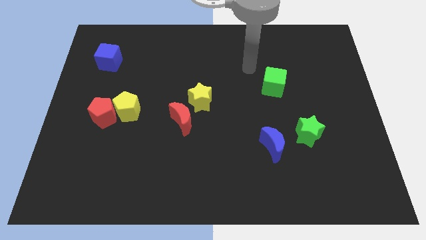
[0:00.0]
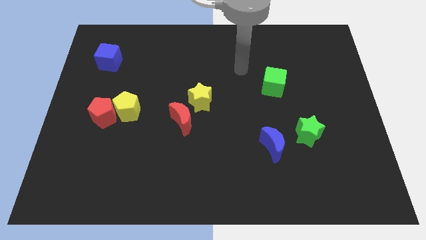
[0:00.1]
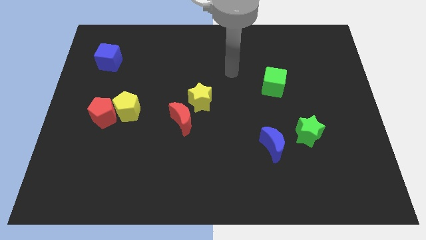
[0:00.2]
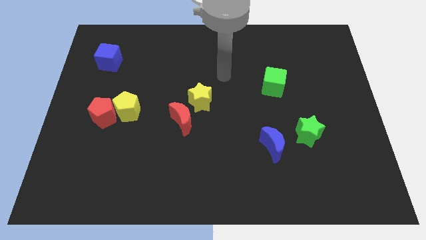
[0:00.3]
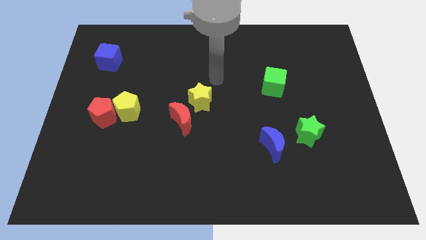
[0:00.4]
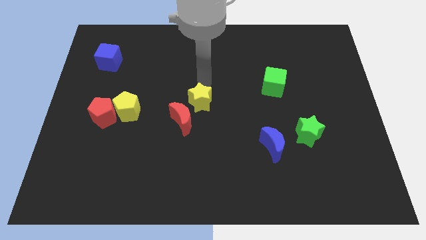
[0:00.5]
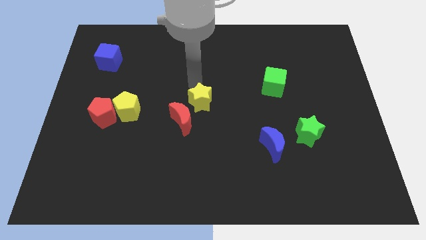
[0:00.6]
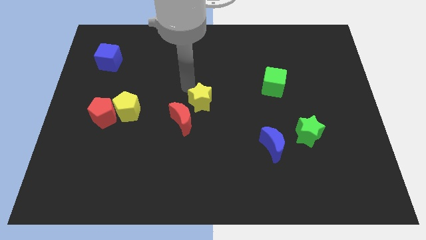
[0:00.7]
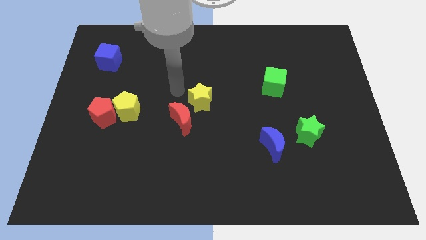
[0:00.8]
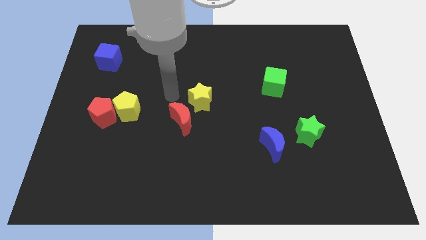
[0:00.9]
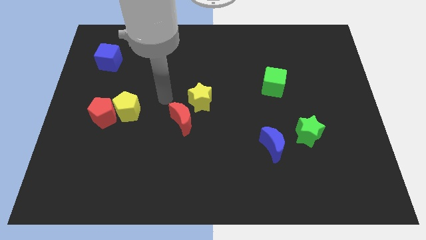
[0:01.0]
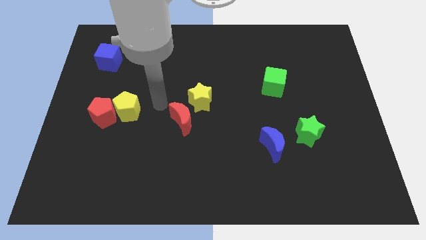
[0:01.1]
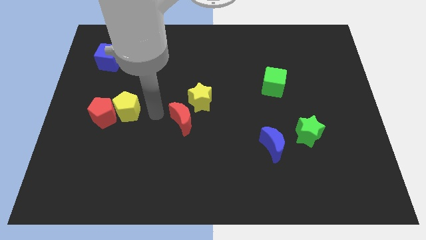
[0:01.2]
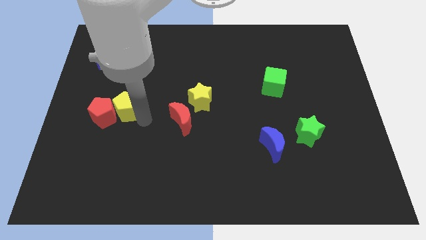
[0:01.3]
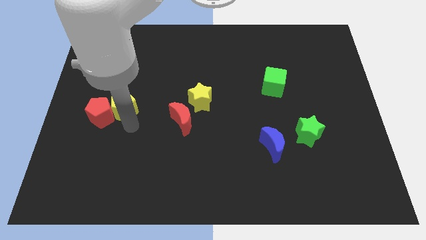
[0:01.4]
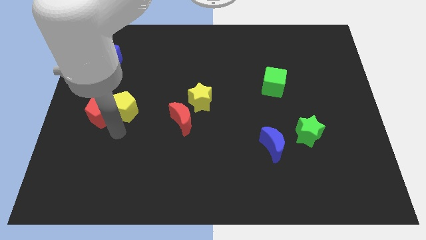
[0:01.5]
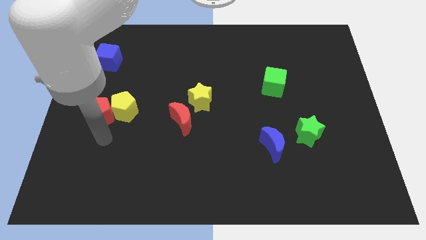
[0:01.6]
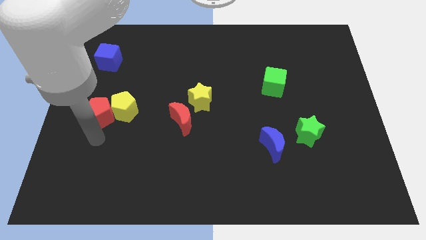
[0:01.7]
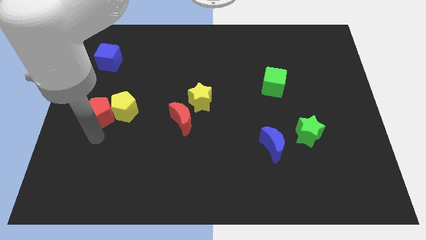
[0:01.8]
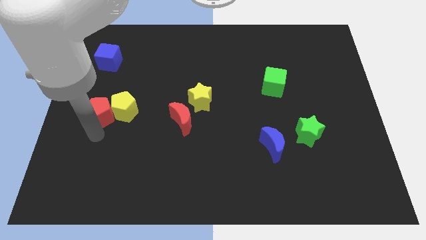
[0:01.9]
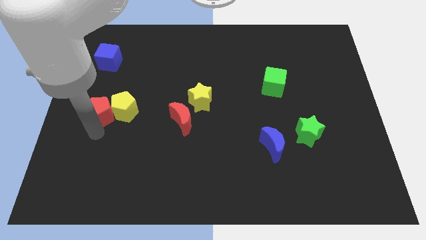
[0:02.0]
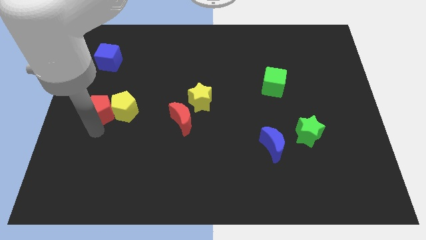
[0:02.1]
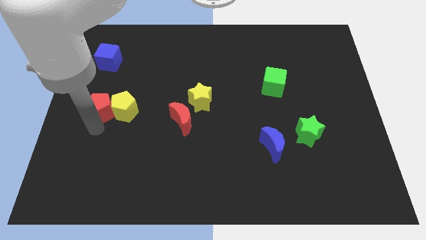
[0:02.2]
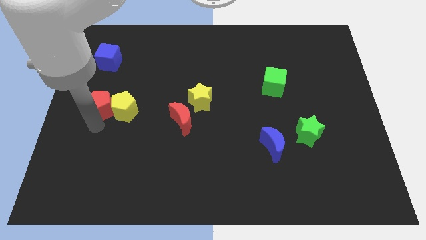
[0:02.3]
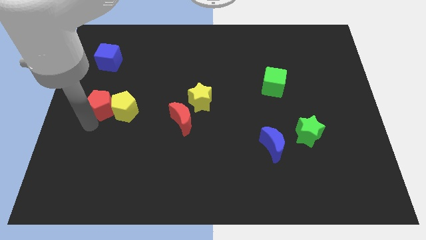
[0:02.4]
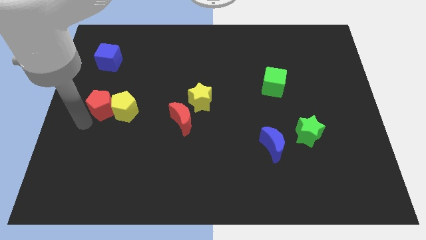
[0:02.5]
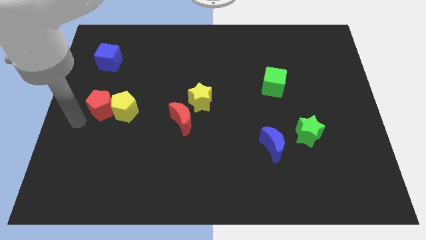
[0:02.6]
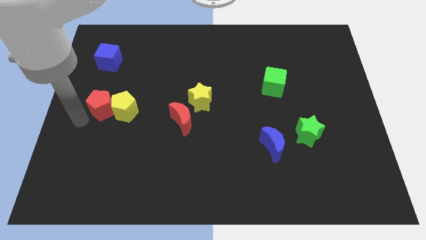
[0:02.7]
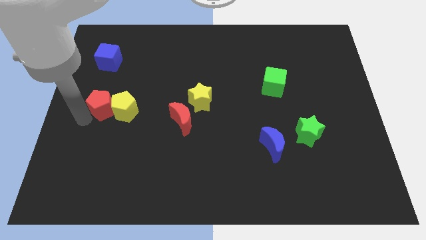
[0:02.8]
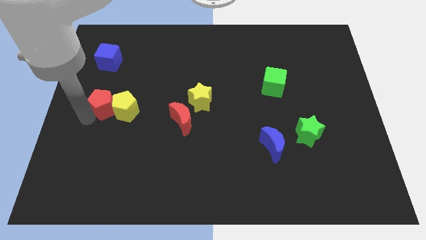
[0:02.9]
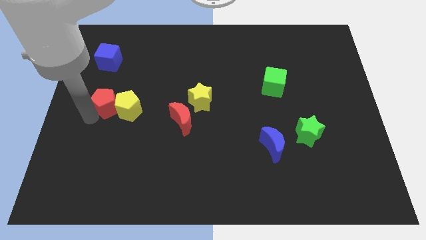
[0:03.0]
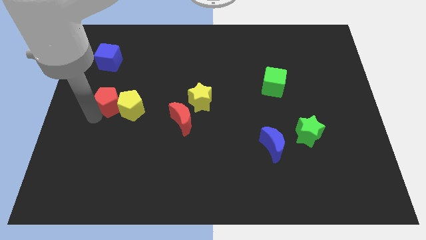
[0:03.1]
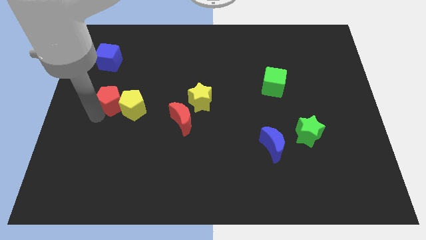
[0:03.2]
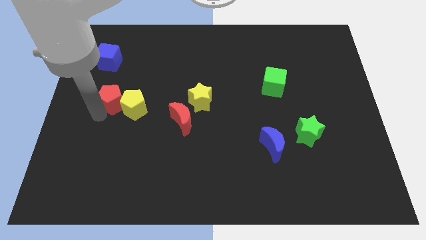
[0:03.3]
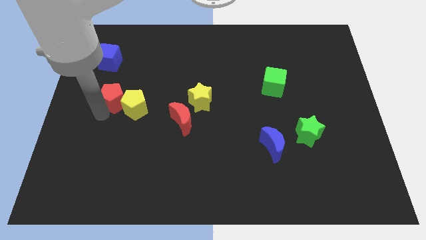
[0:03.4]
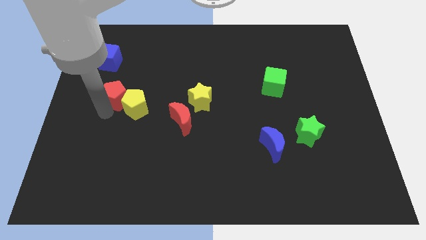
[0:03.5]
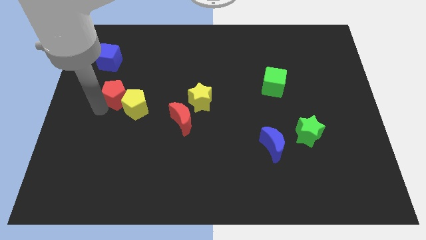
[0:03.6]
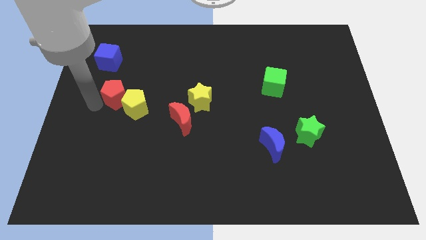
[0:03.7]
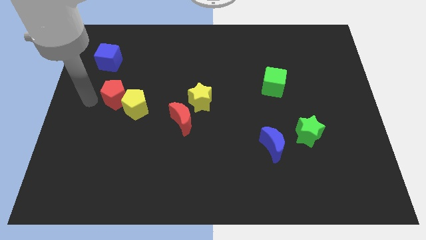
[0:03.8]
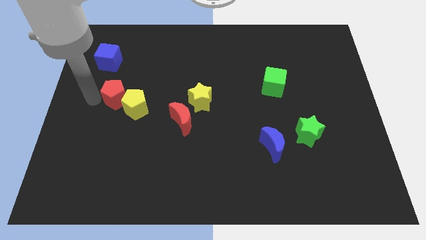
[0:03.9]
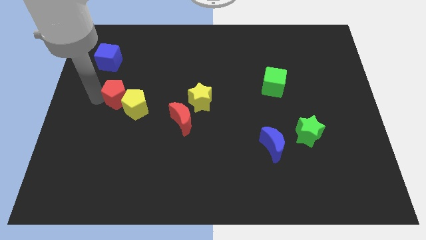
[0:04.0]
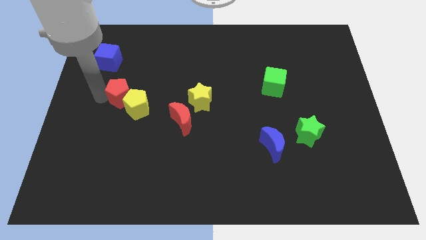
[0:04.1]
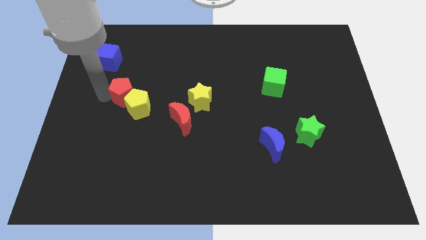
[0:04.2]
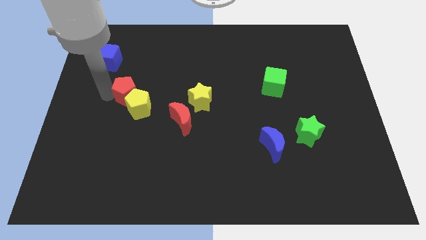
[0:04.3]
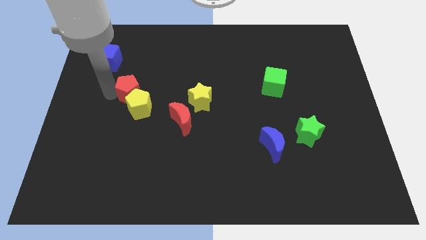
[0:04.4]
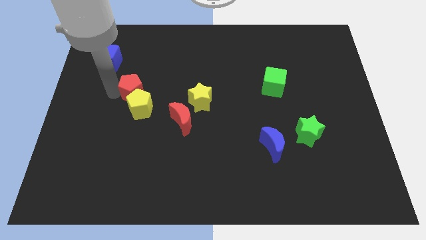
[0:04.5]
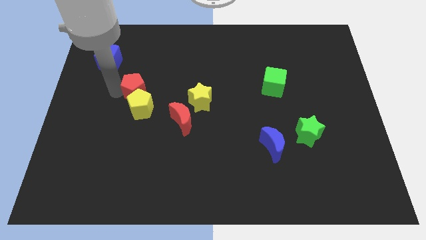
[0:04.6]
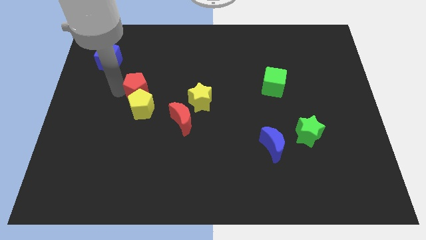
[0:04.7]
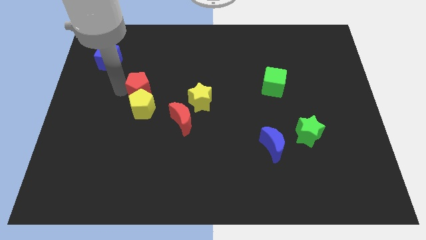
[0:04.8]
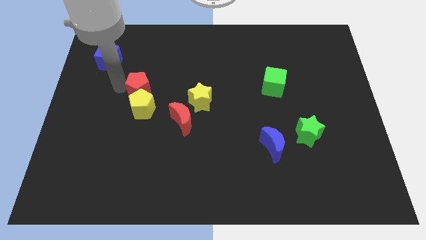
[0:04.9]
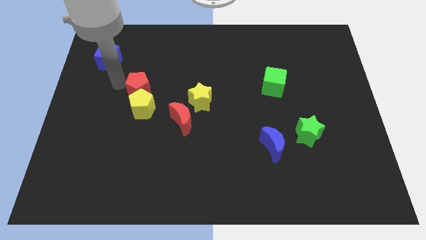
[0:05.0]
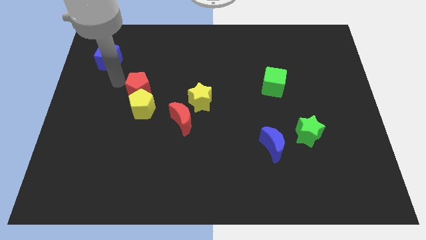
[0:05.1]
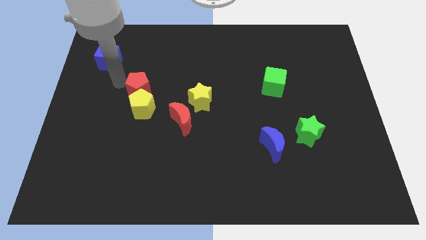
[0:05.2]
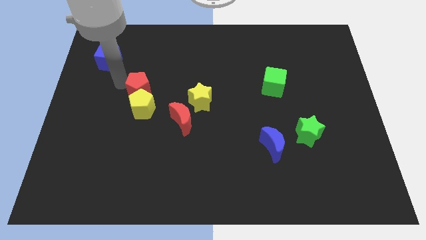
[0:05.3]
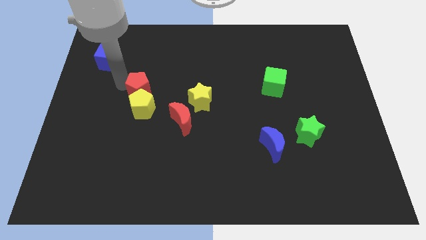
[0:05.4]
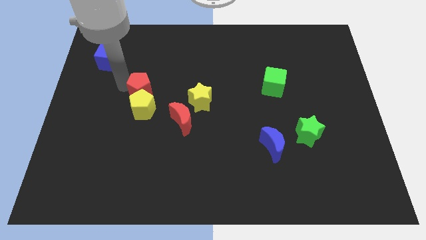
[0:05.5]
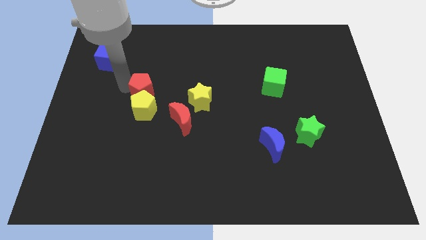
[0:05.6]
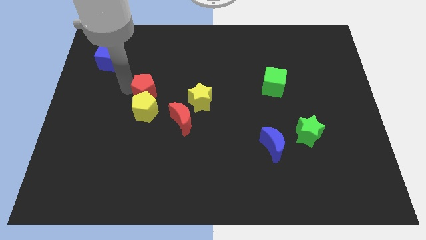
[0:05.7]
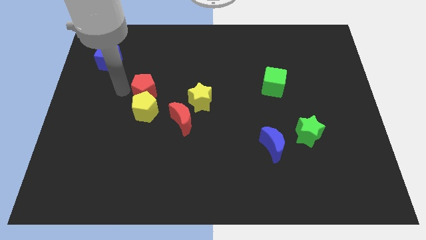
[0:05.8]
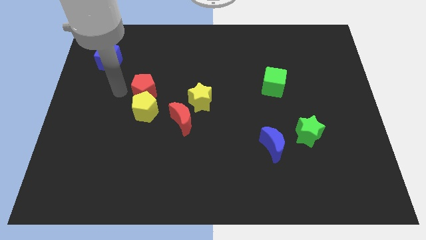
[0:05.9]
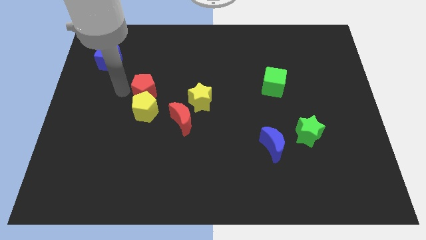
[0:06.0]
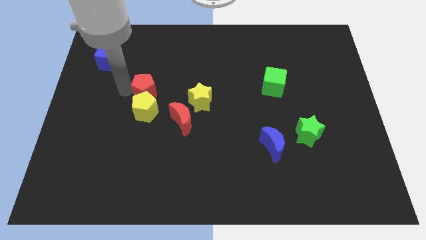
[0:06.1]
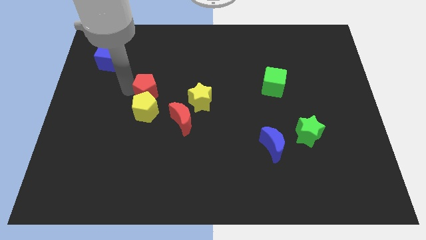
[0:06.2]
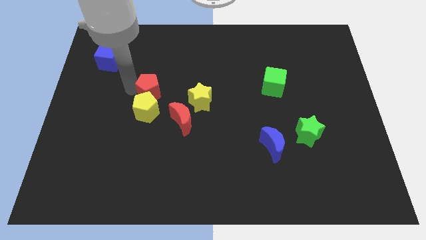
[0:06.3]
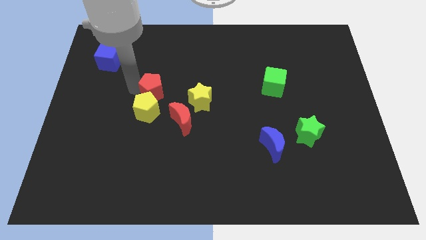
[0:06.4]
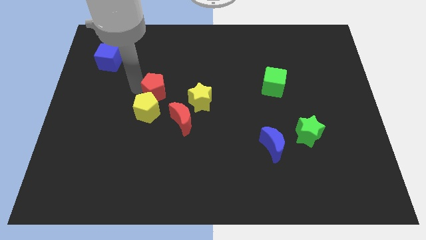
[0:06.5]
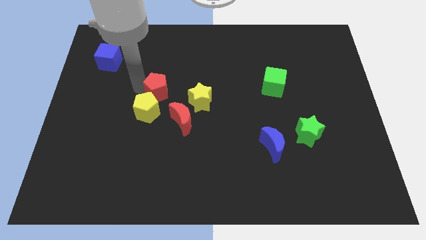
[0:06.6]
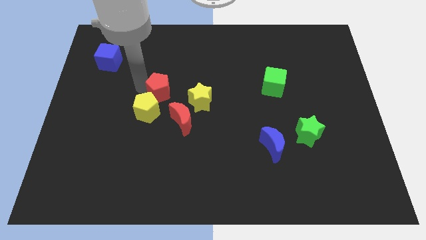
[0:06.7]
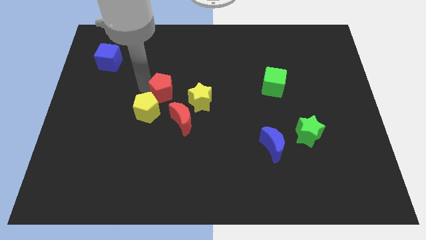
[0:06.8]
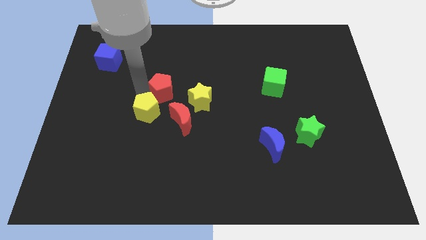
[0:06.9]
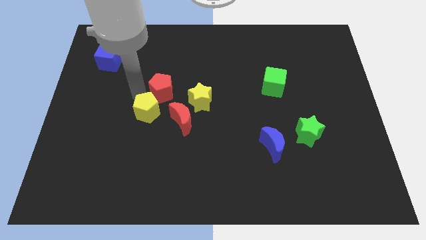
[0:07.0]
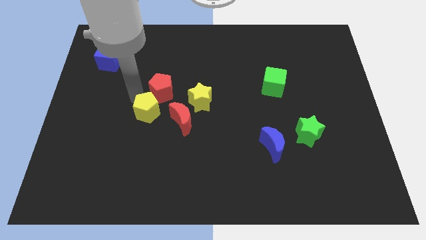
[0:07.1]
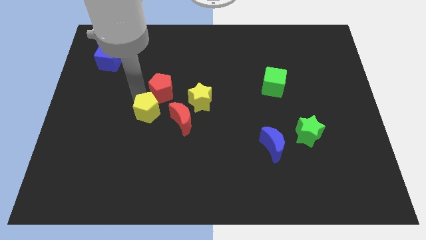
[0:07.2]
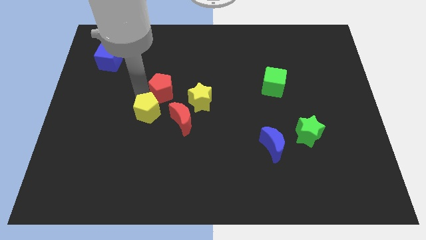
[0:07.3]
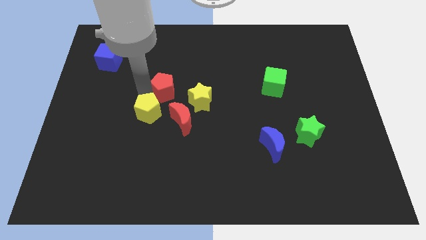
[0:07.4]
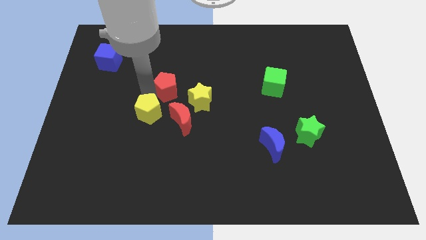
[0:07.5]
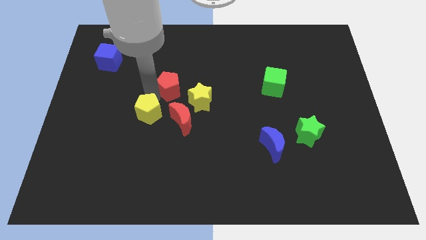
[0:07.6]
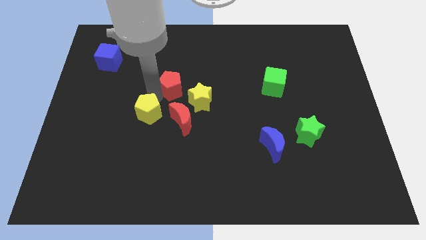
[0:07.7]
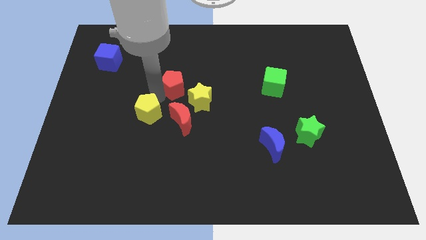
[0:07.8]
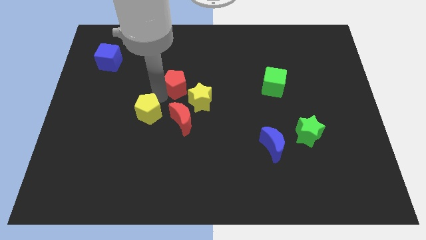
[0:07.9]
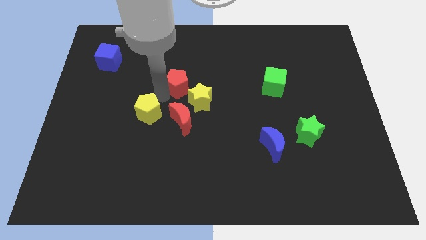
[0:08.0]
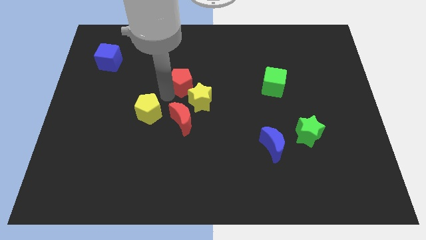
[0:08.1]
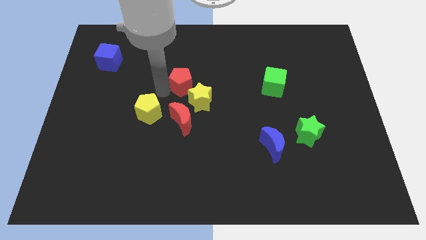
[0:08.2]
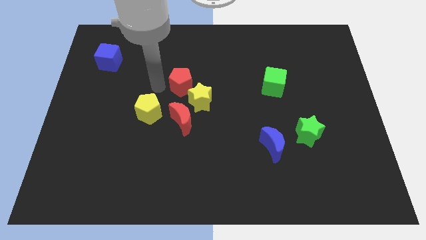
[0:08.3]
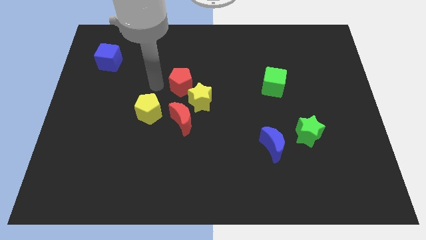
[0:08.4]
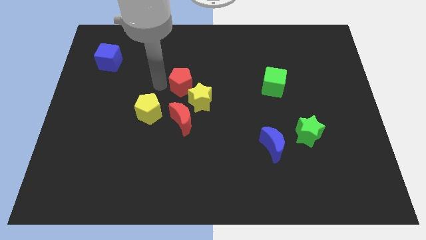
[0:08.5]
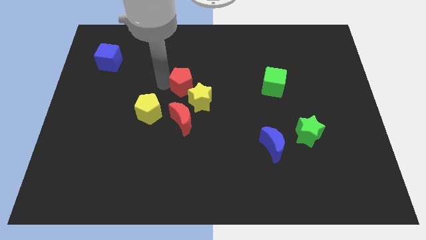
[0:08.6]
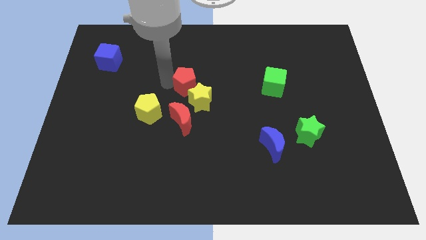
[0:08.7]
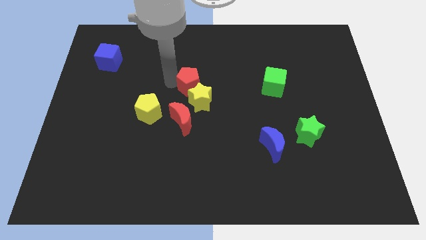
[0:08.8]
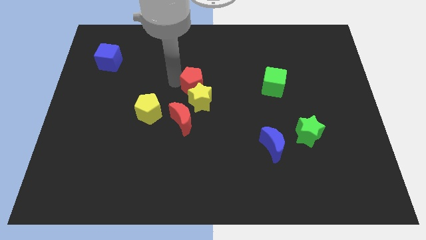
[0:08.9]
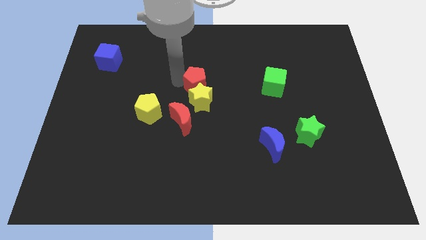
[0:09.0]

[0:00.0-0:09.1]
put the red pentagon diagonally up and to the right of the yellow star
